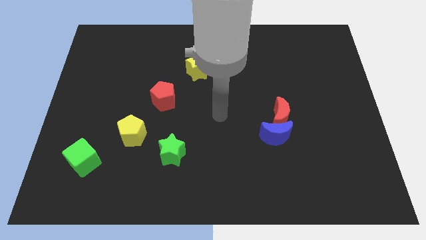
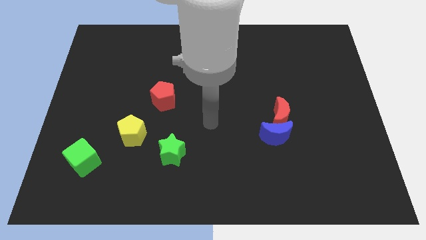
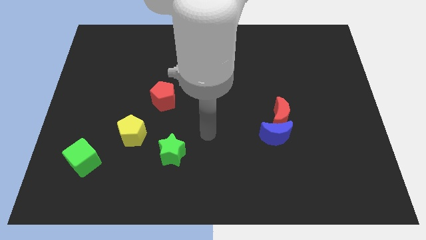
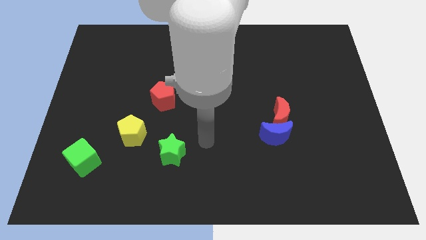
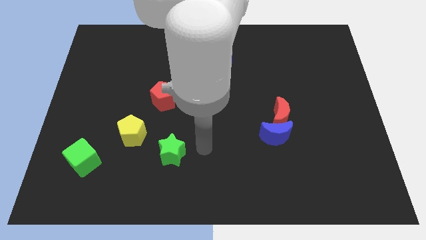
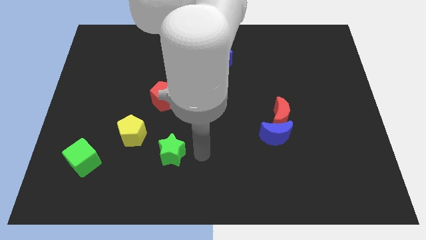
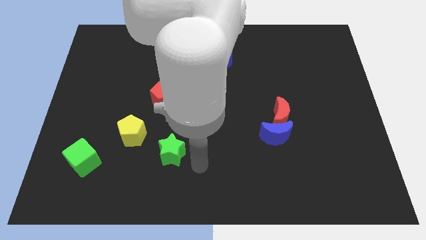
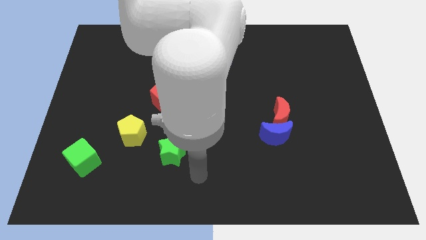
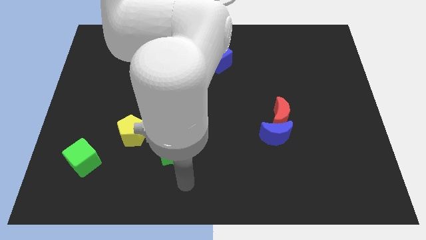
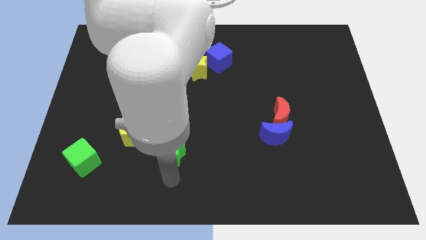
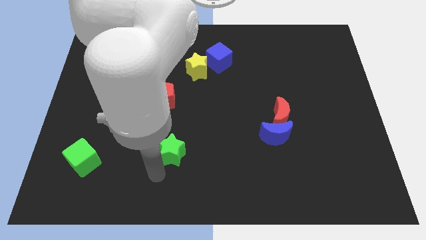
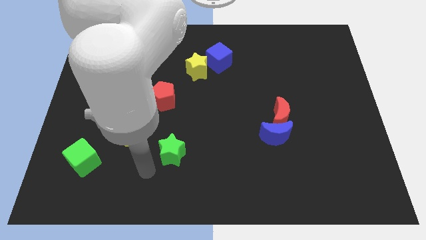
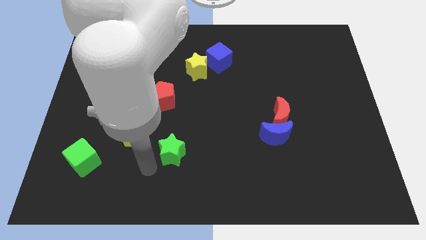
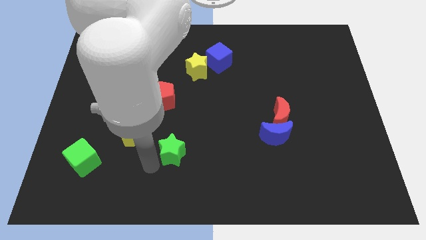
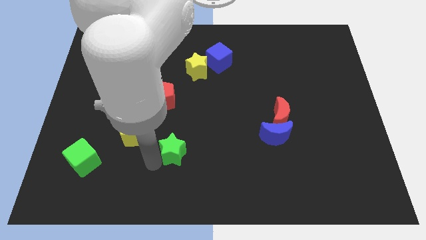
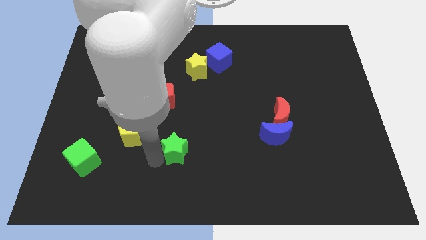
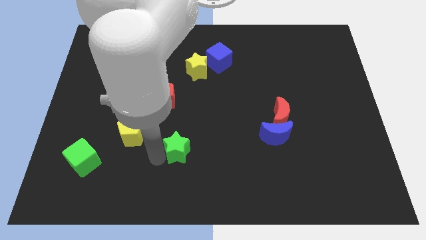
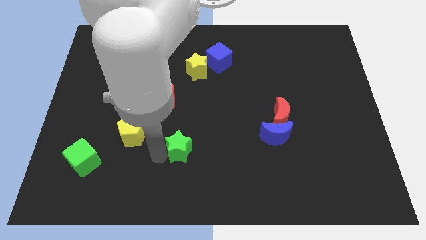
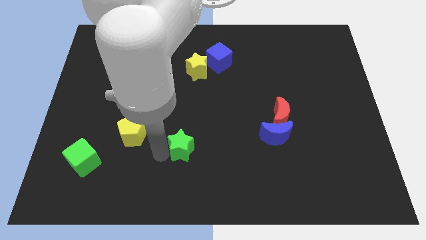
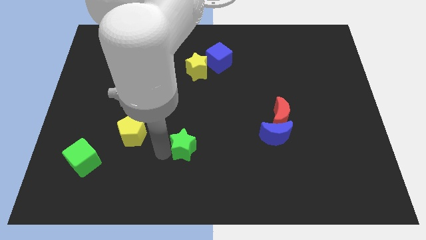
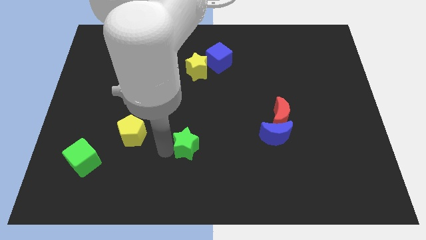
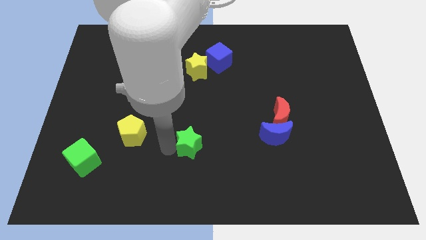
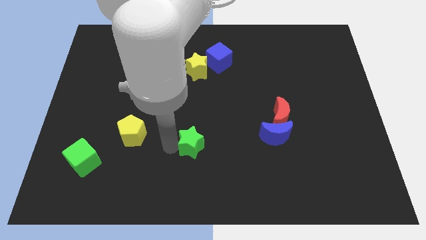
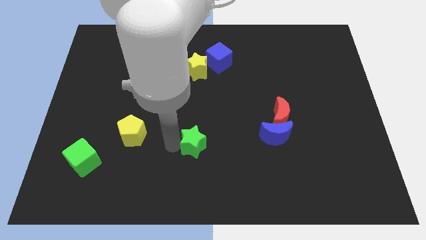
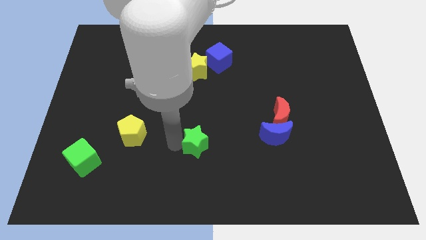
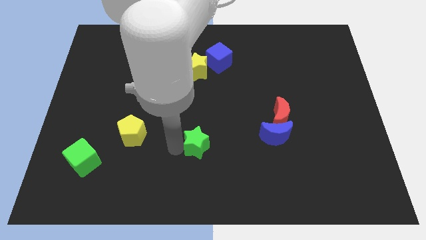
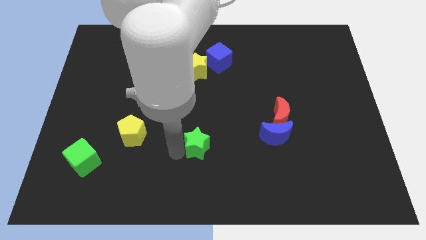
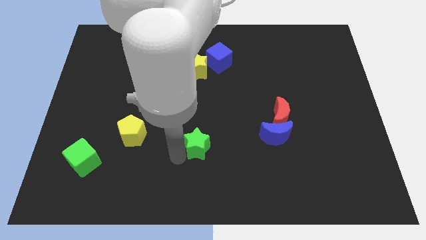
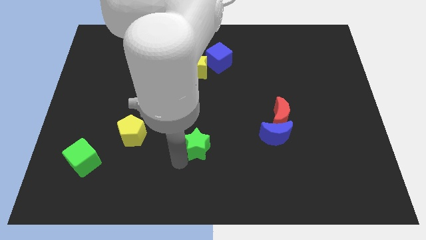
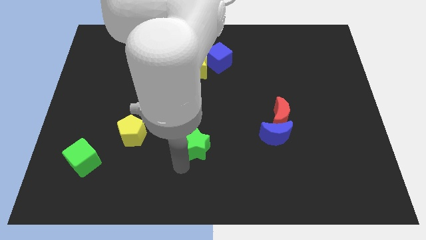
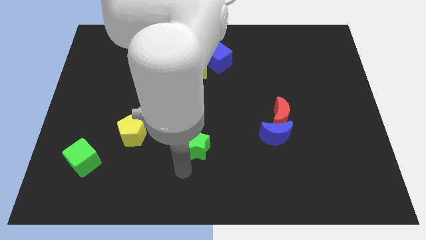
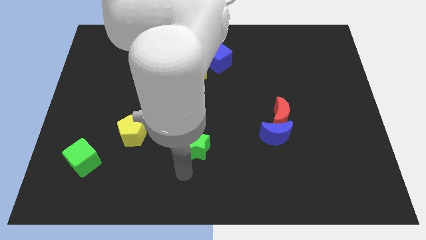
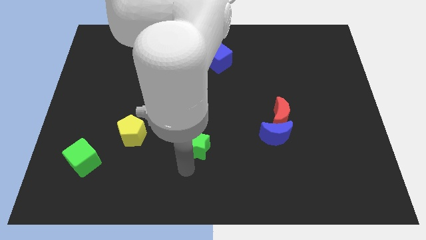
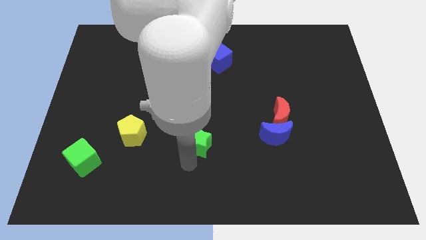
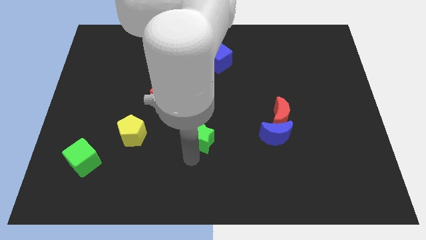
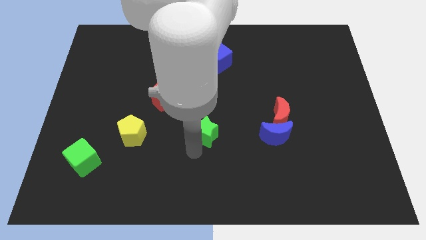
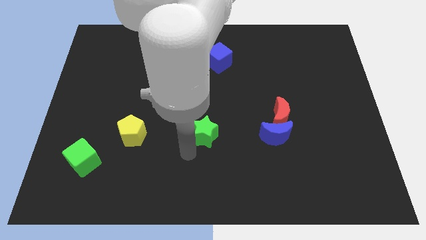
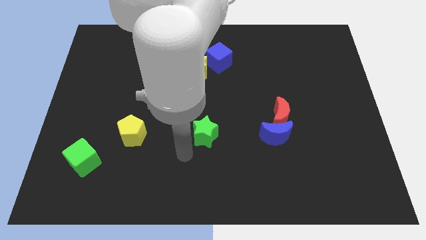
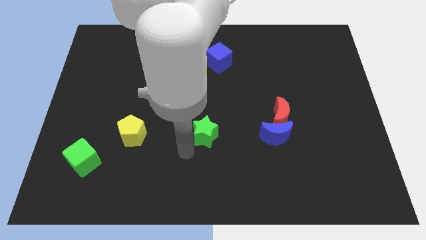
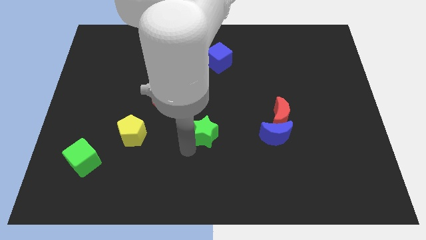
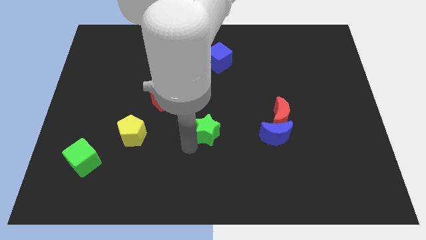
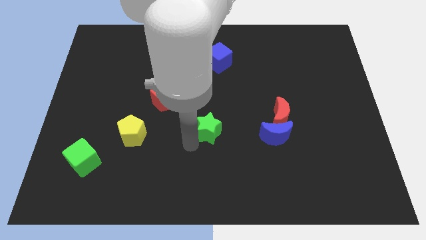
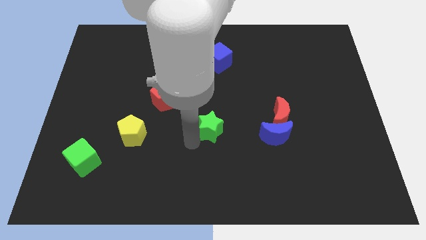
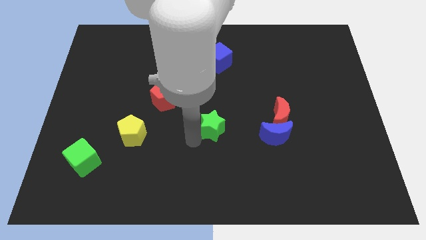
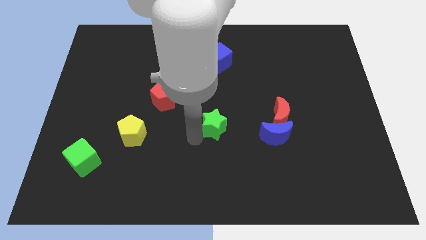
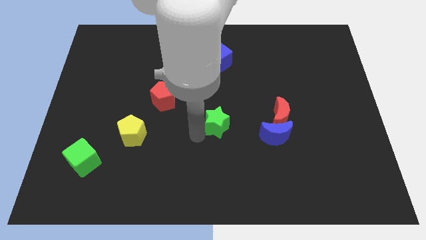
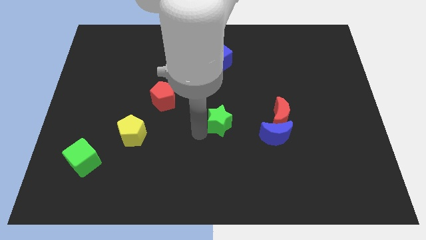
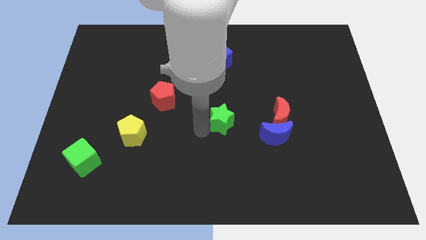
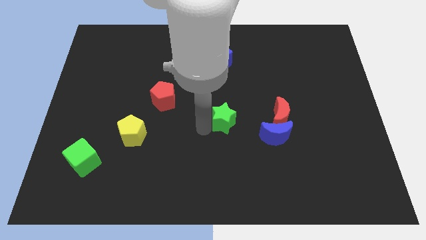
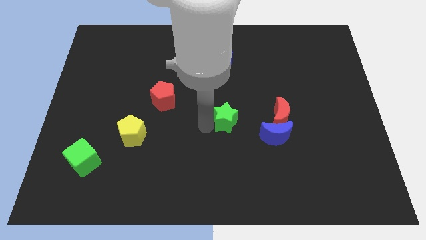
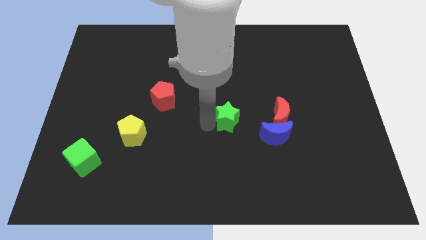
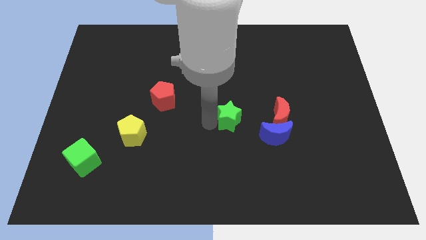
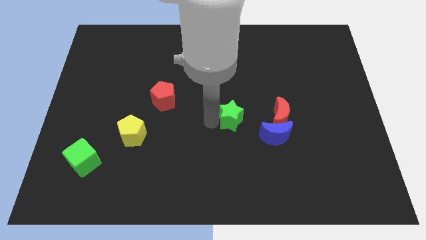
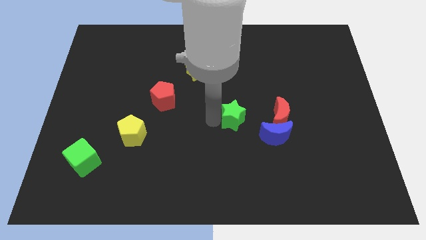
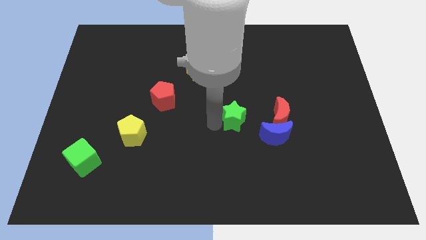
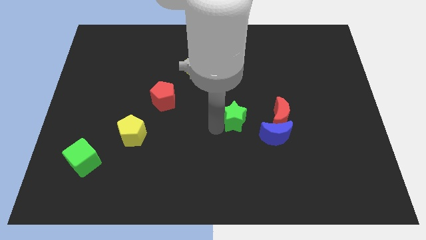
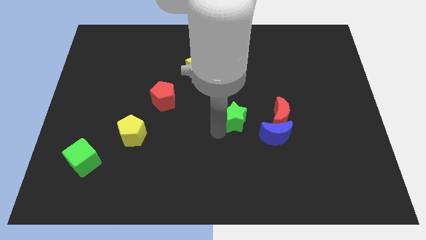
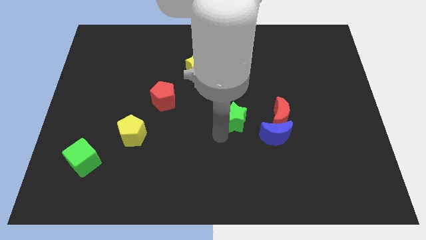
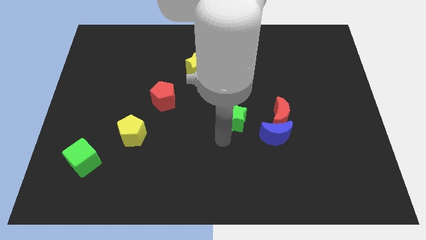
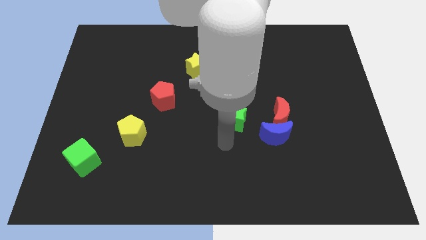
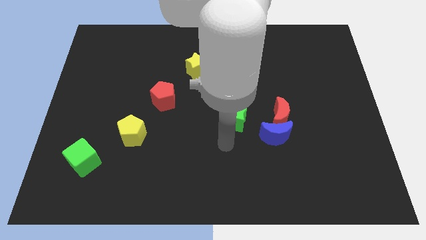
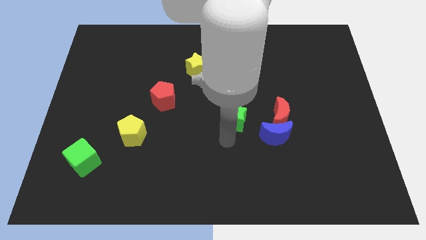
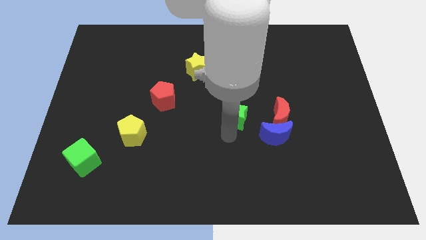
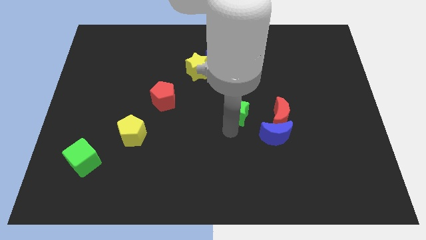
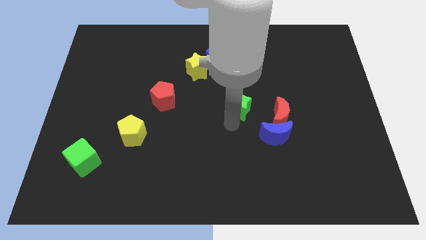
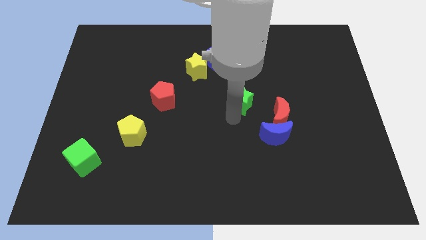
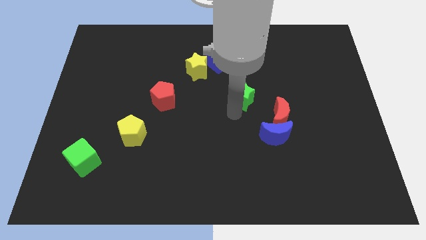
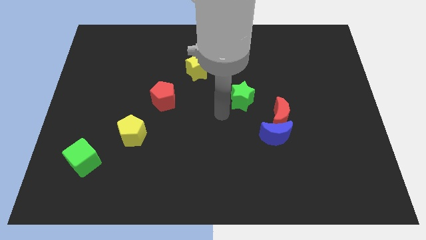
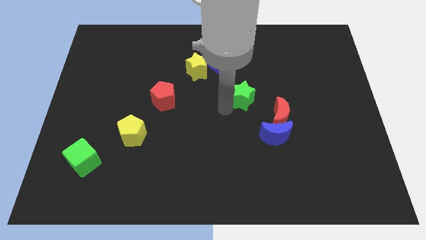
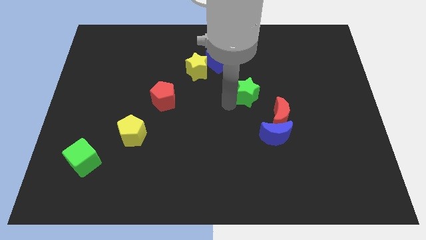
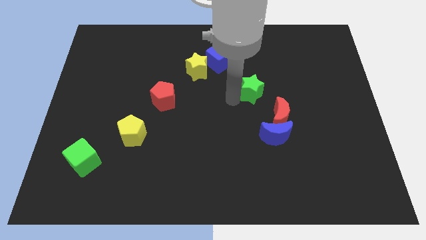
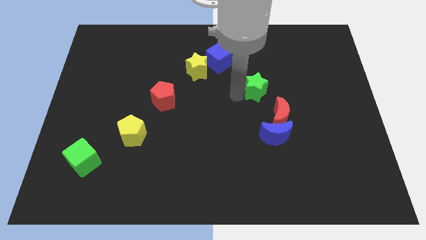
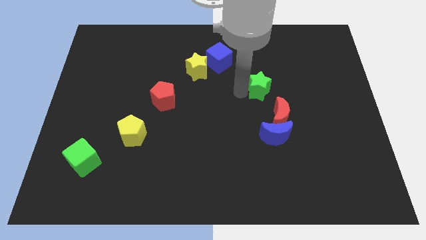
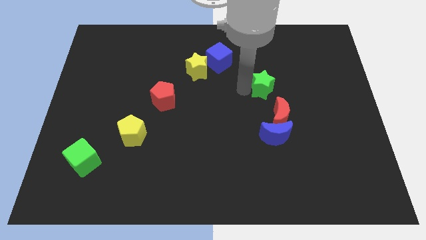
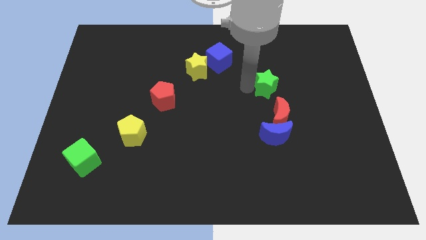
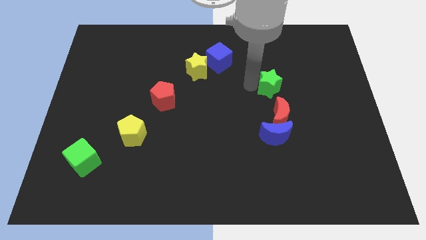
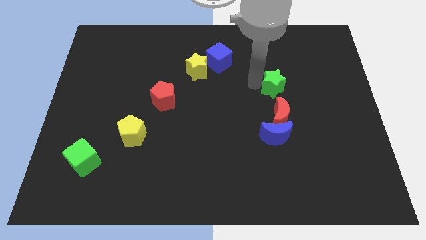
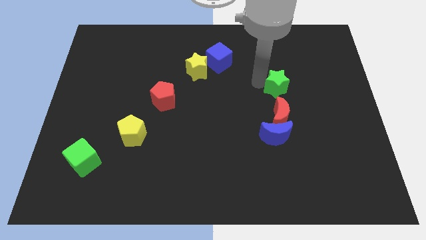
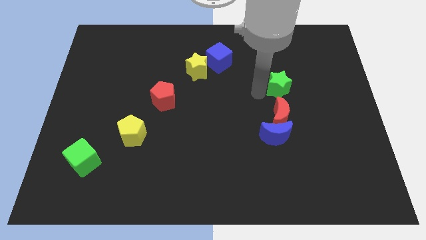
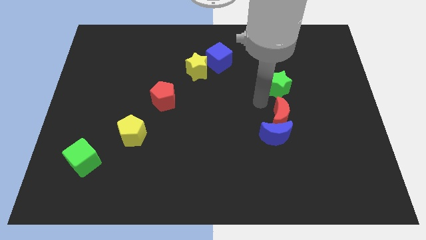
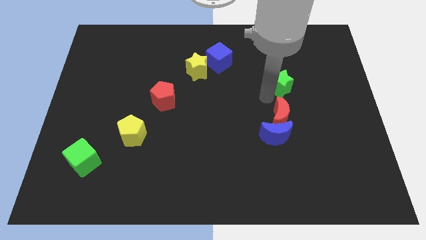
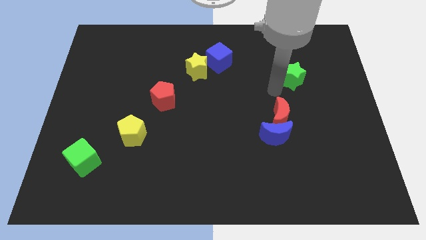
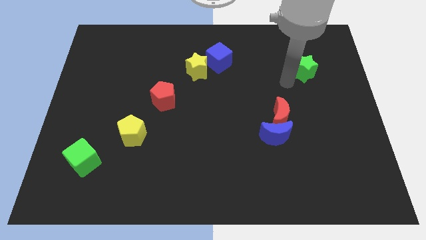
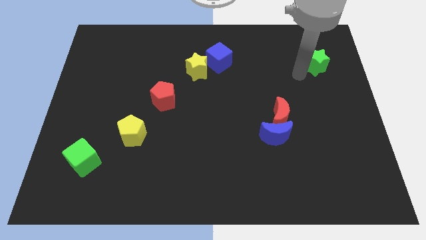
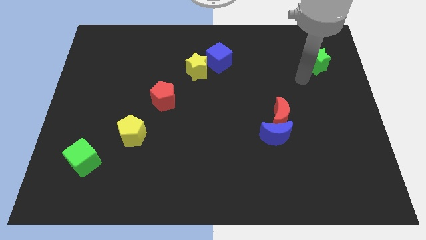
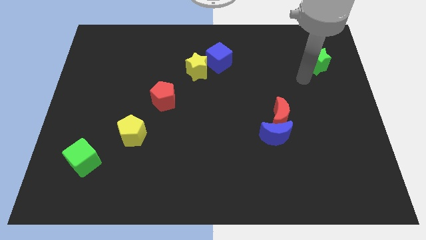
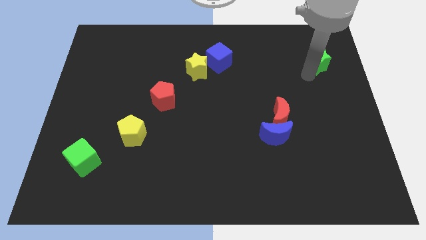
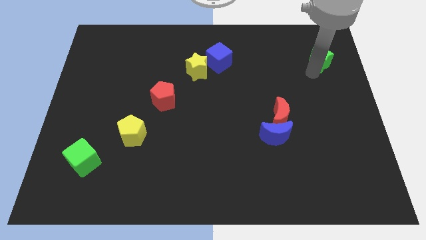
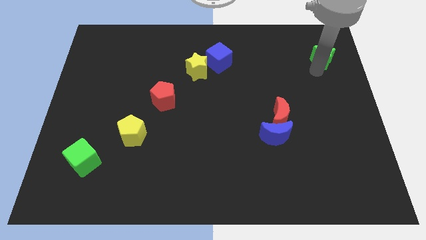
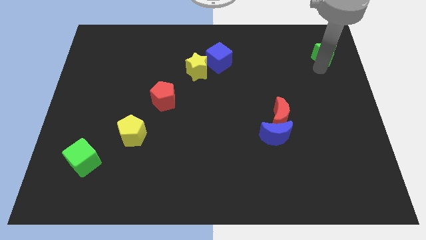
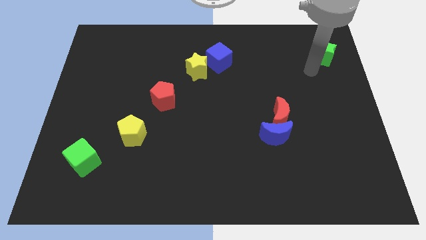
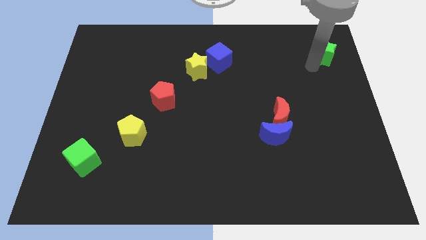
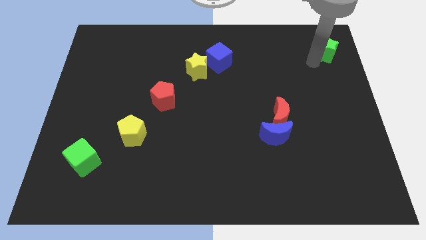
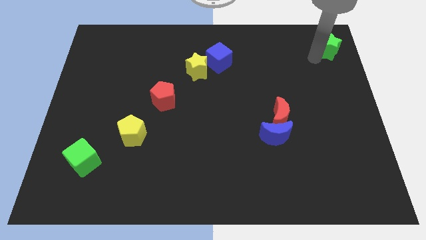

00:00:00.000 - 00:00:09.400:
move the green star to the top right
